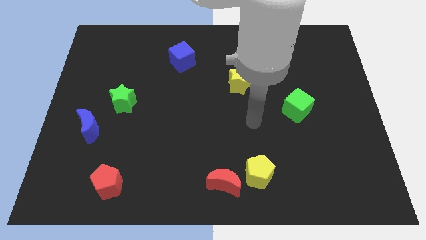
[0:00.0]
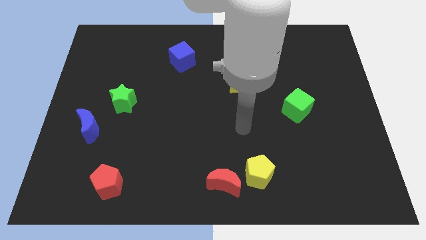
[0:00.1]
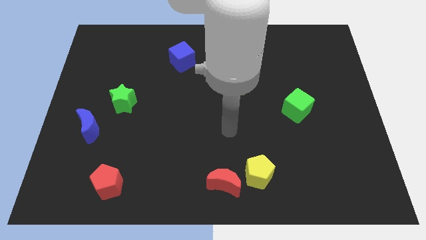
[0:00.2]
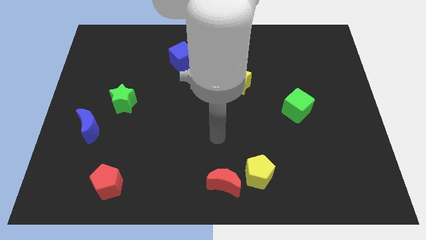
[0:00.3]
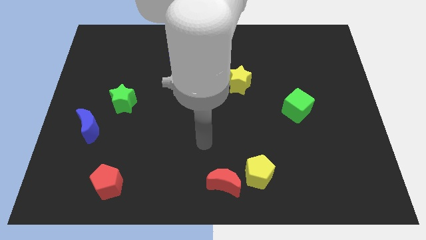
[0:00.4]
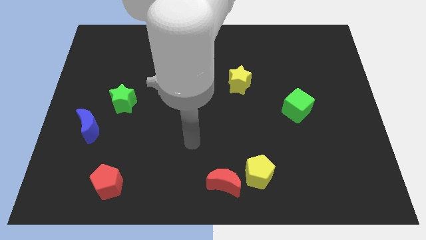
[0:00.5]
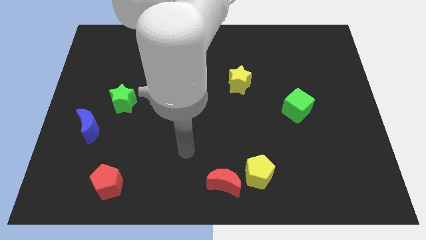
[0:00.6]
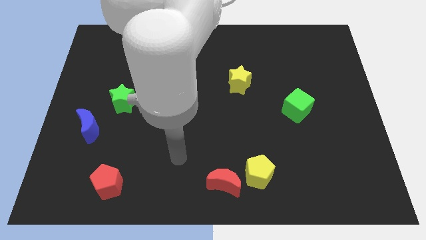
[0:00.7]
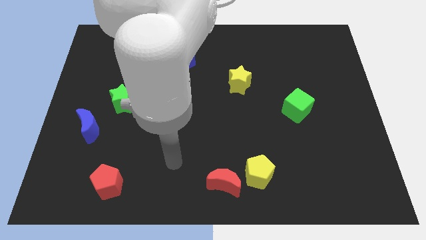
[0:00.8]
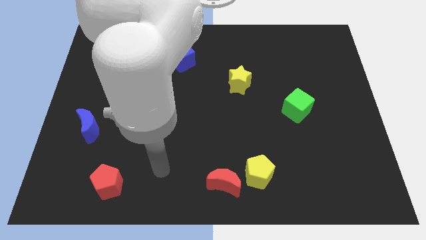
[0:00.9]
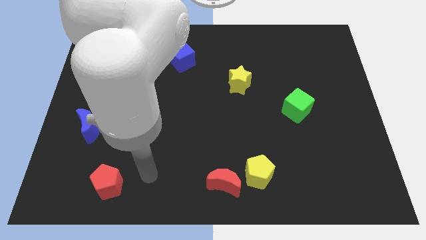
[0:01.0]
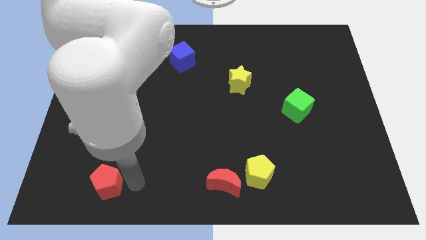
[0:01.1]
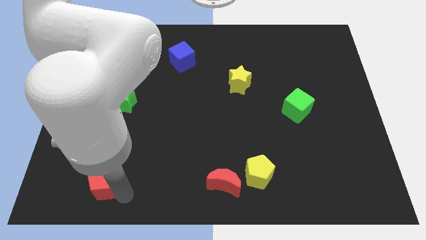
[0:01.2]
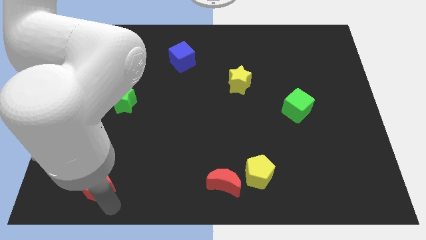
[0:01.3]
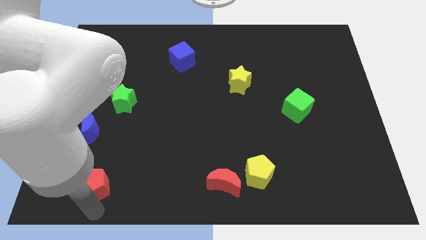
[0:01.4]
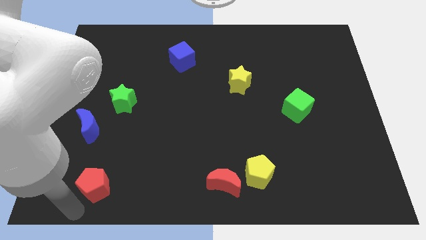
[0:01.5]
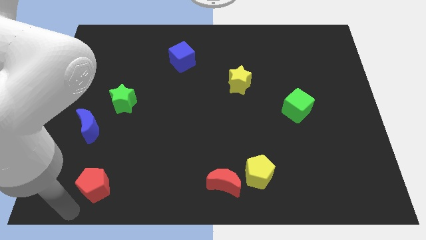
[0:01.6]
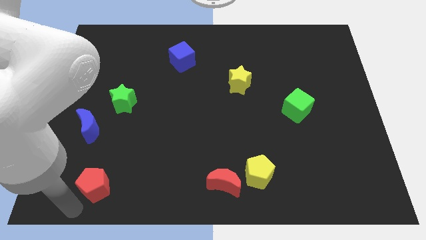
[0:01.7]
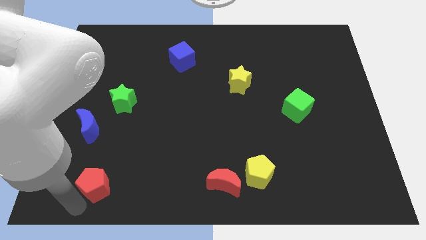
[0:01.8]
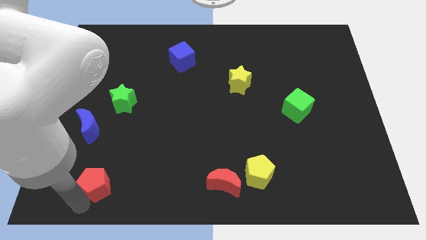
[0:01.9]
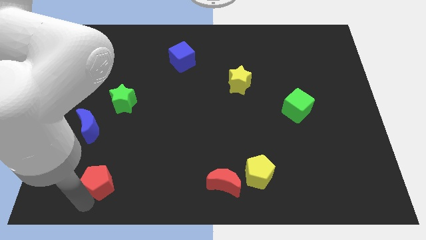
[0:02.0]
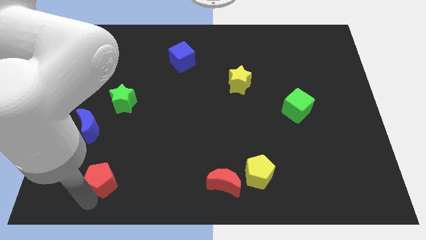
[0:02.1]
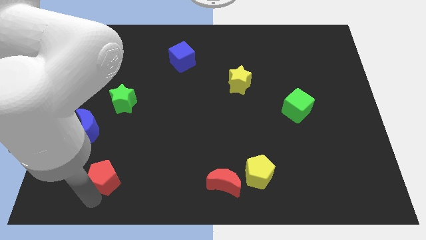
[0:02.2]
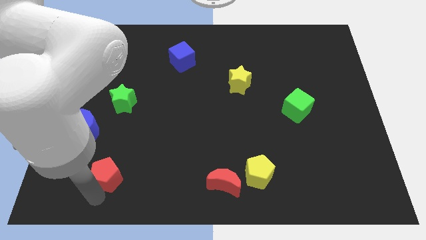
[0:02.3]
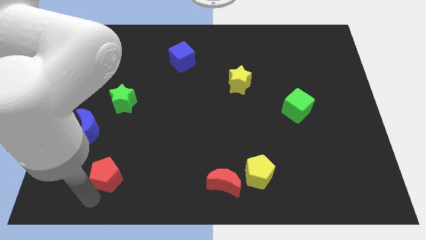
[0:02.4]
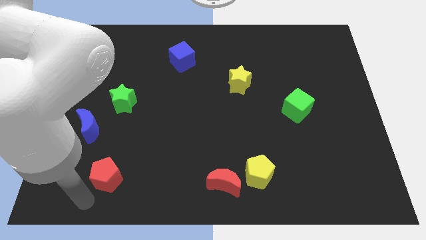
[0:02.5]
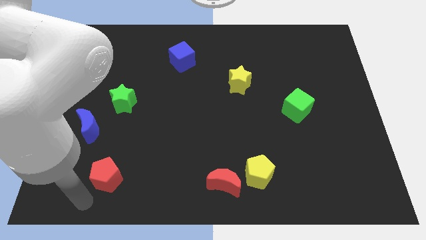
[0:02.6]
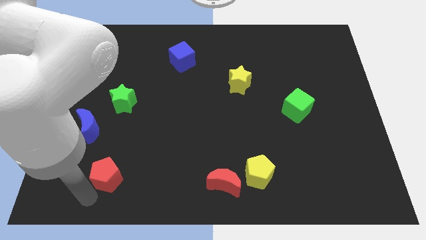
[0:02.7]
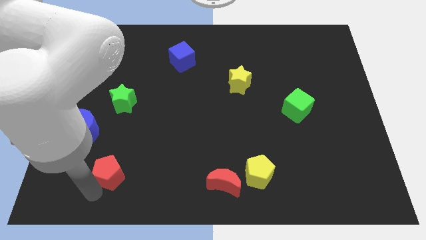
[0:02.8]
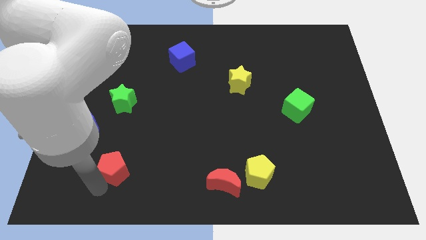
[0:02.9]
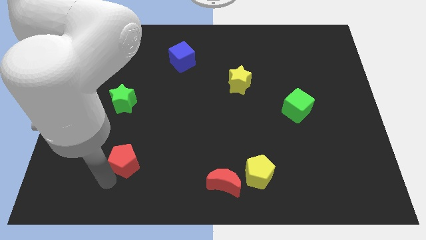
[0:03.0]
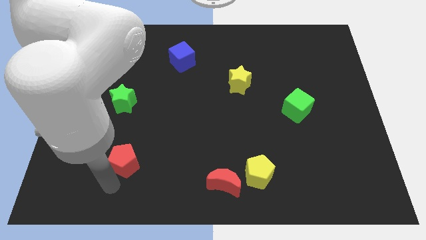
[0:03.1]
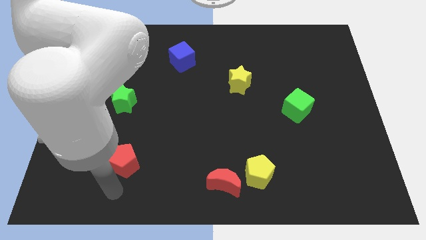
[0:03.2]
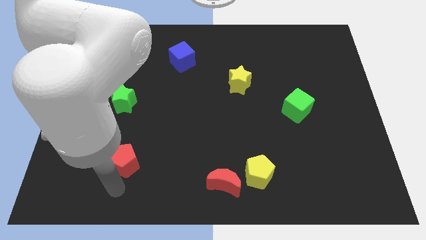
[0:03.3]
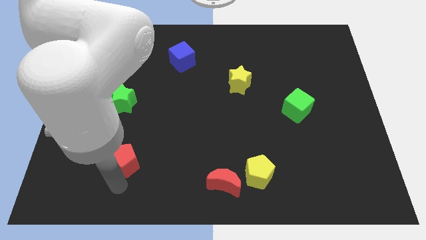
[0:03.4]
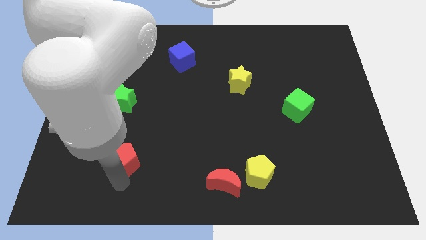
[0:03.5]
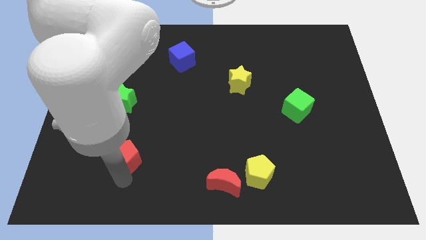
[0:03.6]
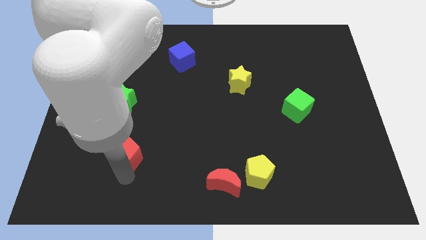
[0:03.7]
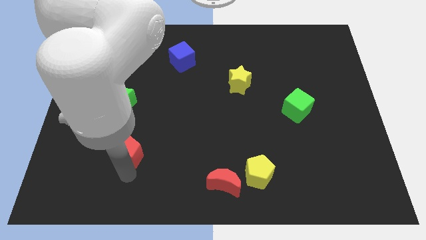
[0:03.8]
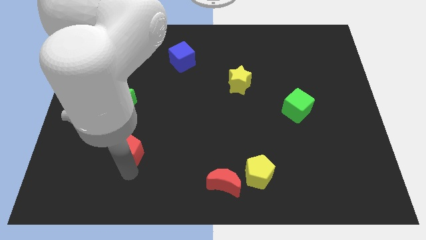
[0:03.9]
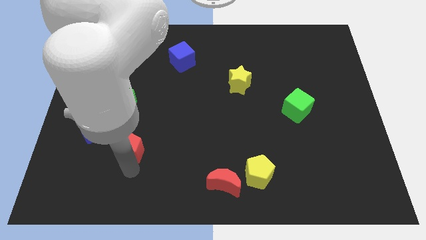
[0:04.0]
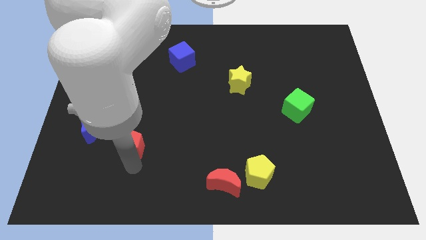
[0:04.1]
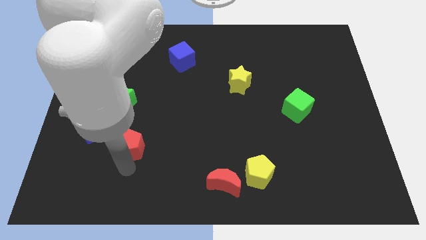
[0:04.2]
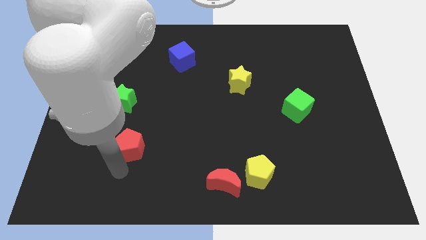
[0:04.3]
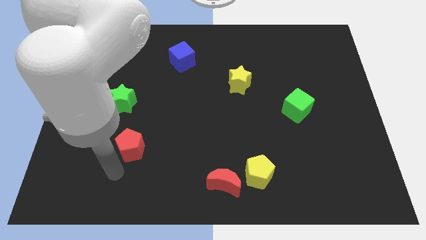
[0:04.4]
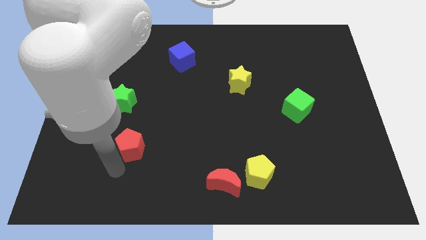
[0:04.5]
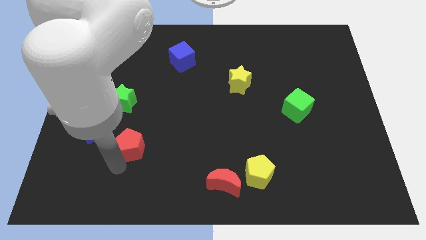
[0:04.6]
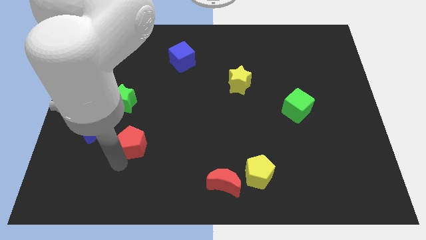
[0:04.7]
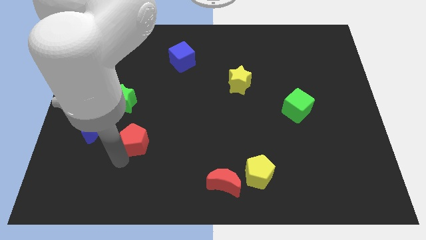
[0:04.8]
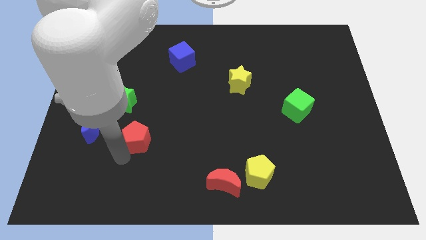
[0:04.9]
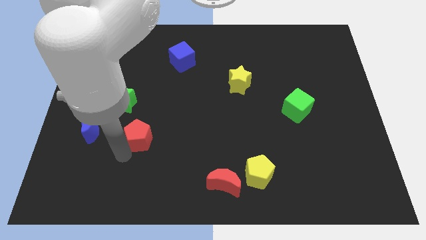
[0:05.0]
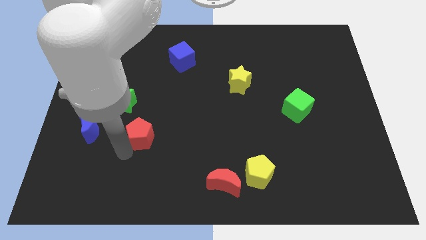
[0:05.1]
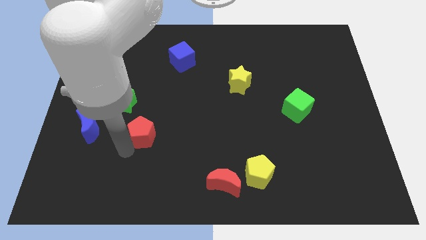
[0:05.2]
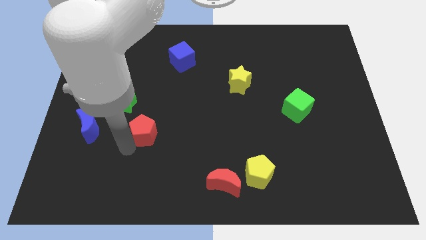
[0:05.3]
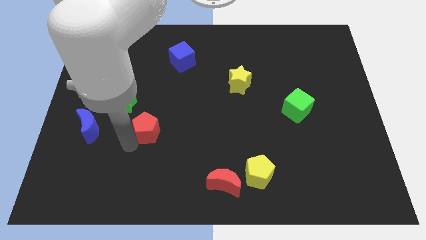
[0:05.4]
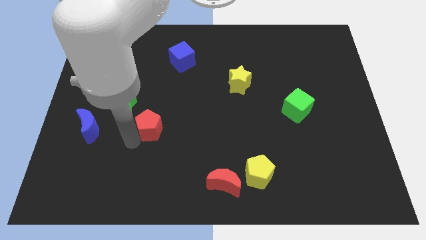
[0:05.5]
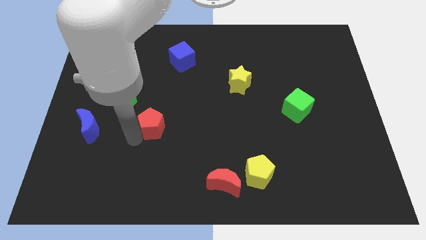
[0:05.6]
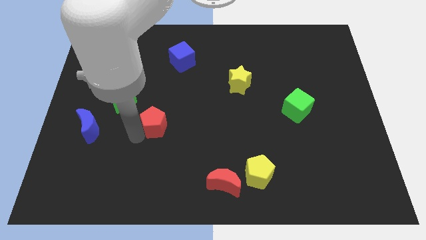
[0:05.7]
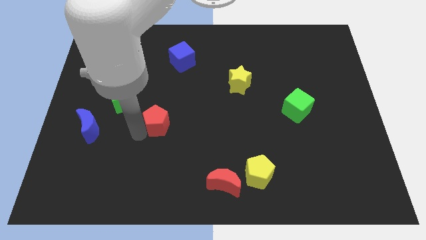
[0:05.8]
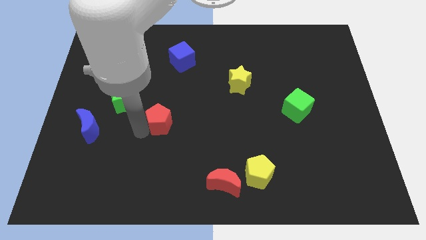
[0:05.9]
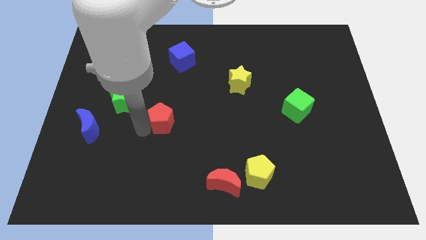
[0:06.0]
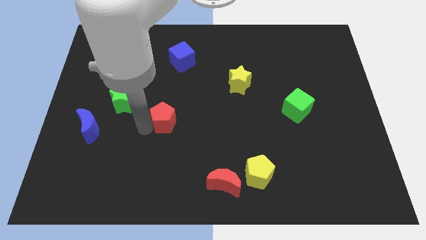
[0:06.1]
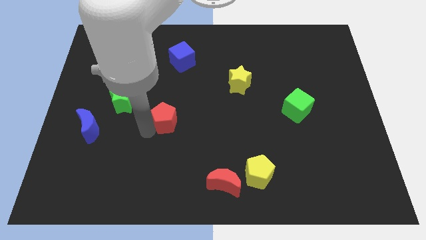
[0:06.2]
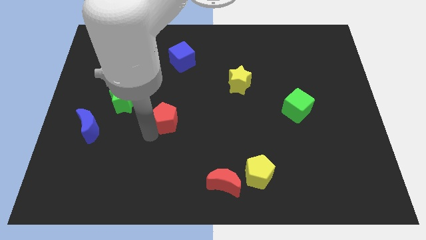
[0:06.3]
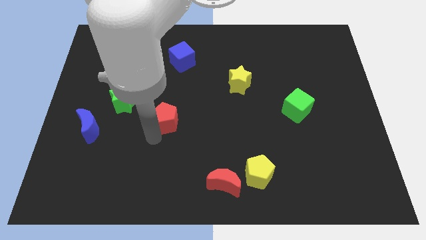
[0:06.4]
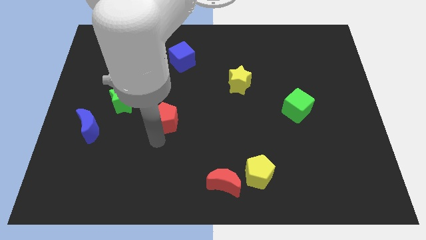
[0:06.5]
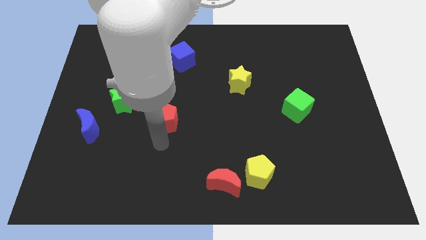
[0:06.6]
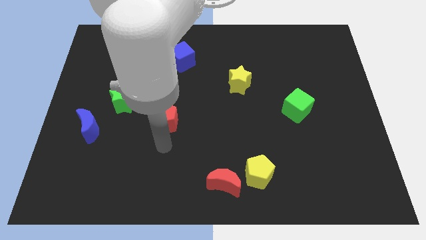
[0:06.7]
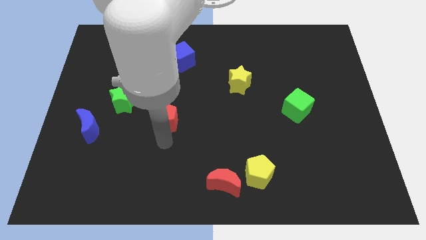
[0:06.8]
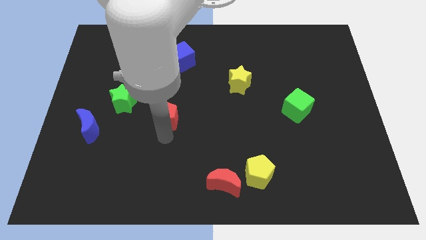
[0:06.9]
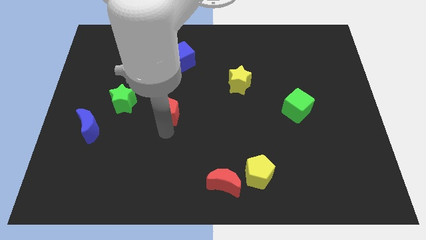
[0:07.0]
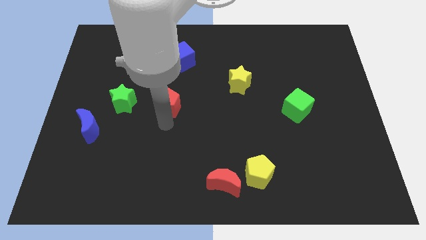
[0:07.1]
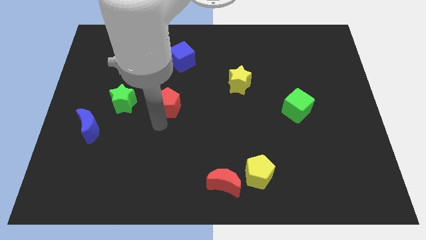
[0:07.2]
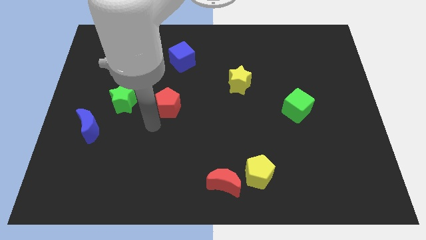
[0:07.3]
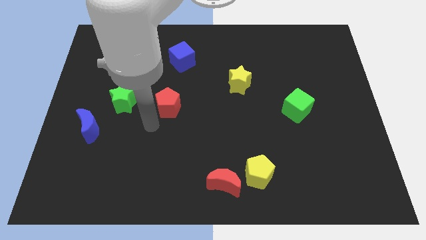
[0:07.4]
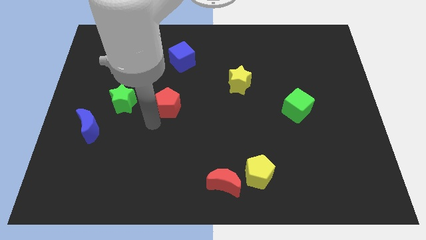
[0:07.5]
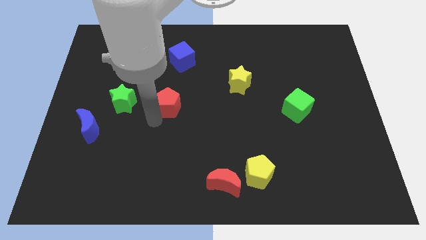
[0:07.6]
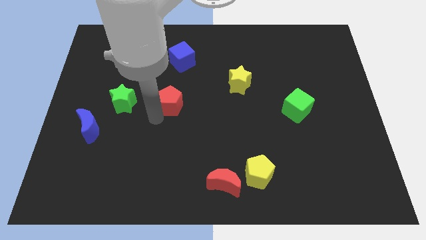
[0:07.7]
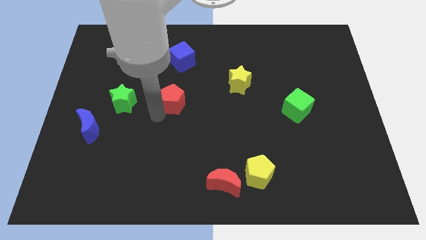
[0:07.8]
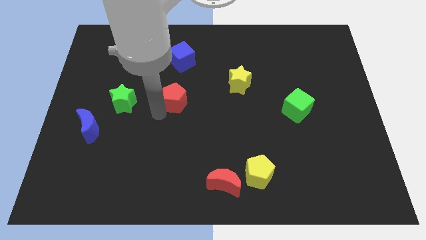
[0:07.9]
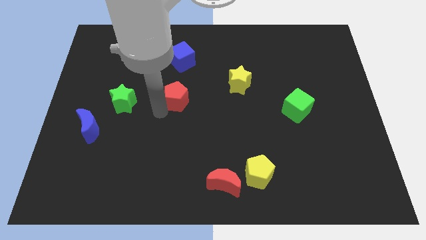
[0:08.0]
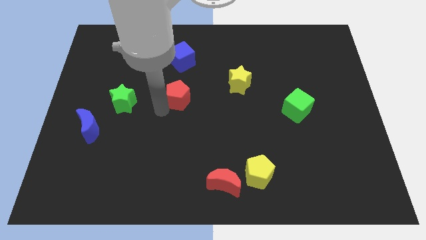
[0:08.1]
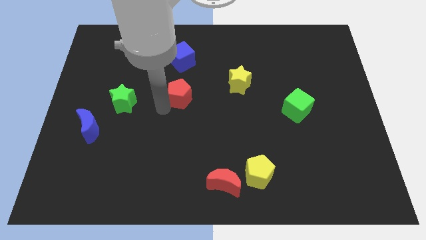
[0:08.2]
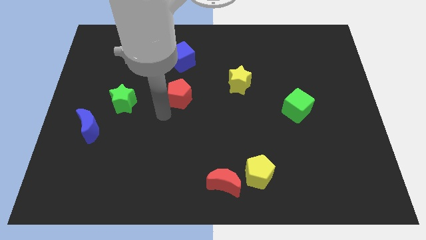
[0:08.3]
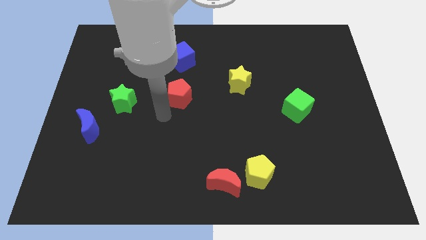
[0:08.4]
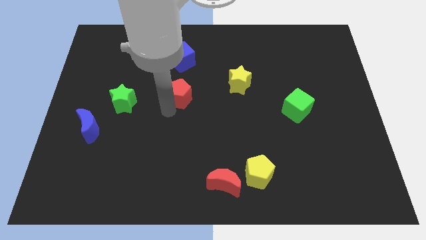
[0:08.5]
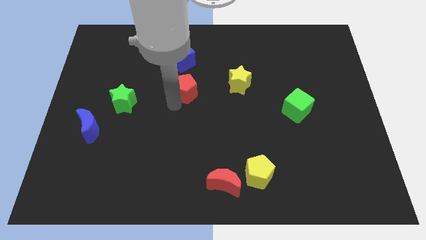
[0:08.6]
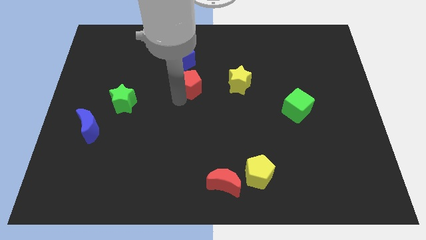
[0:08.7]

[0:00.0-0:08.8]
push the red pentagon diagonally down and to the right of the blue cube
